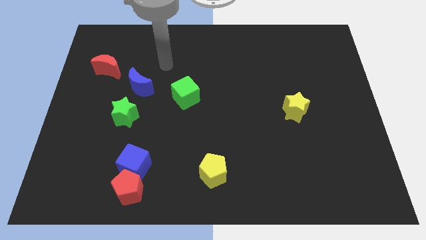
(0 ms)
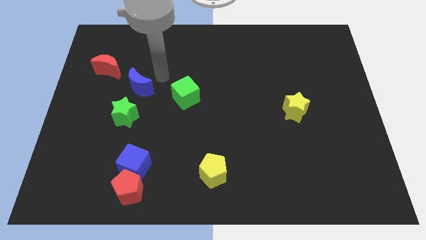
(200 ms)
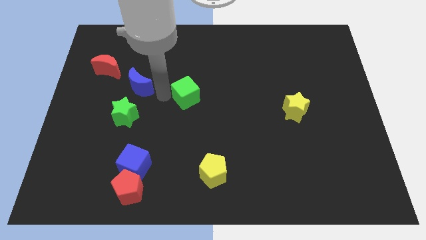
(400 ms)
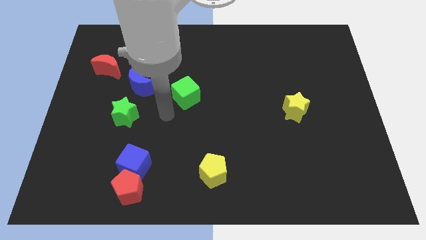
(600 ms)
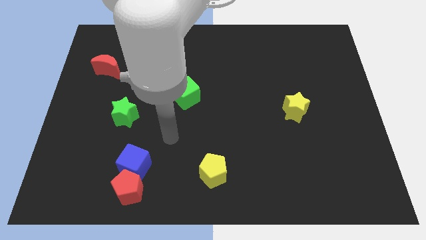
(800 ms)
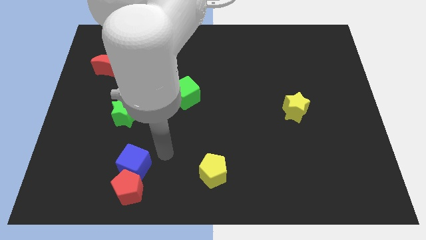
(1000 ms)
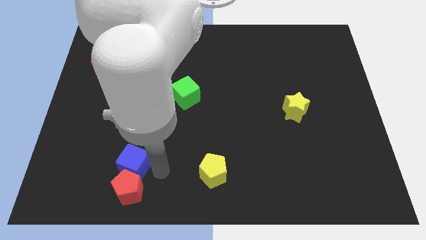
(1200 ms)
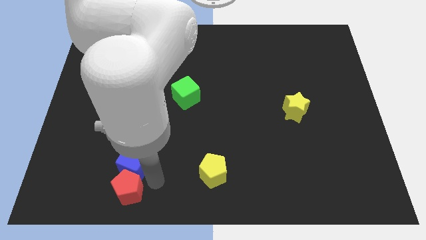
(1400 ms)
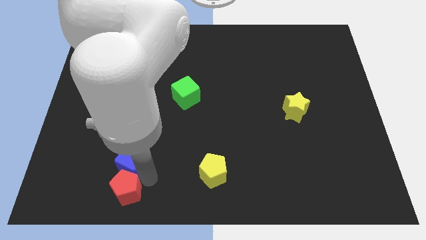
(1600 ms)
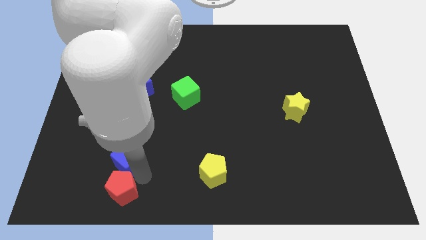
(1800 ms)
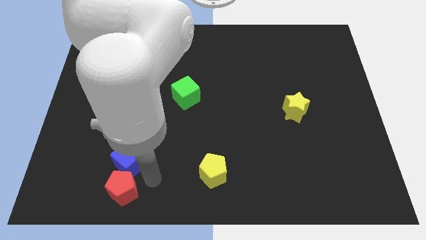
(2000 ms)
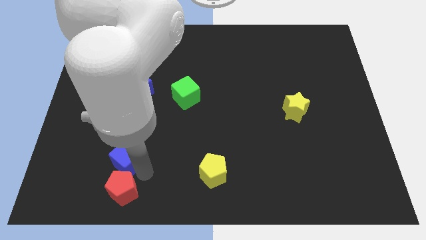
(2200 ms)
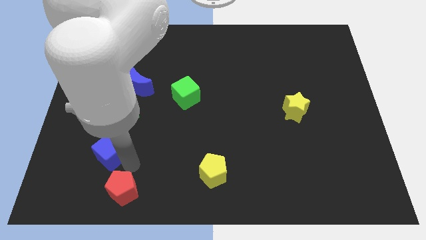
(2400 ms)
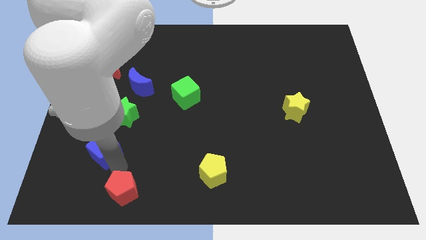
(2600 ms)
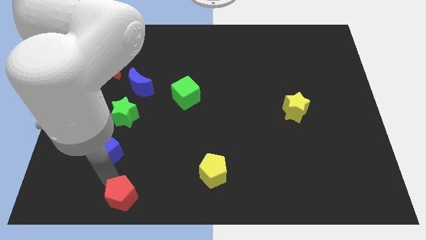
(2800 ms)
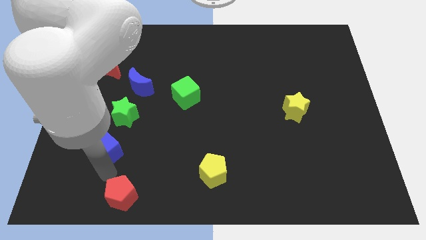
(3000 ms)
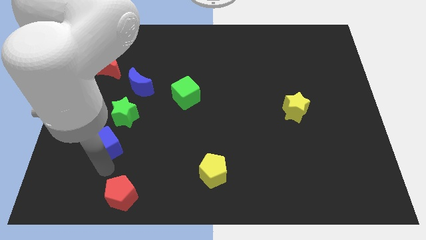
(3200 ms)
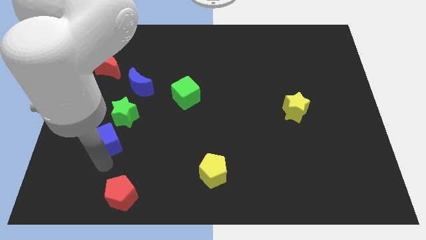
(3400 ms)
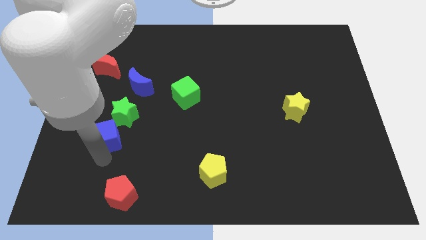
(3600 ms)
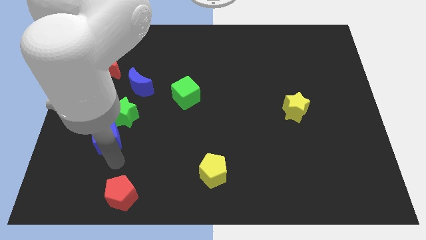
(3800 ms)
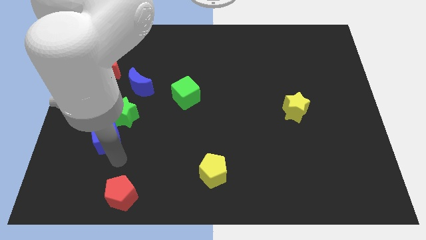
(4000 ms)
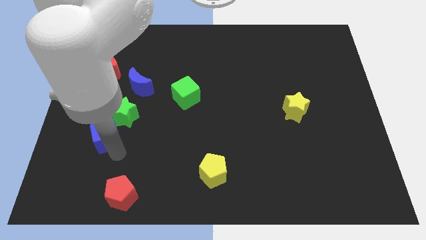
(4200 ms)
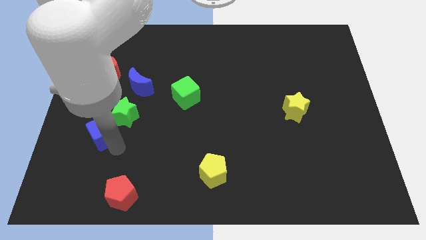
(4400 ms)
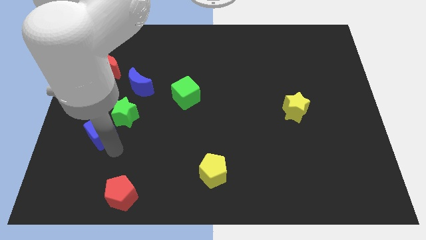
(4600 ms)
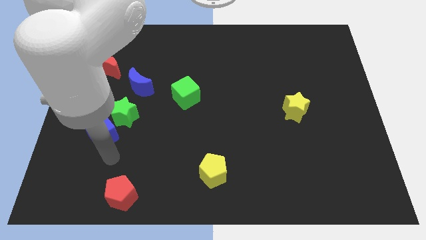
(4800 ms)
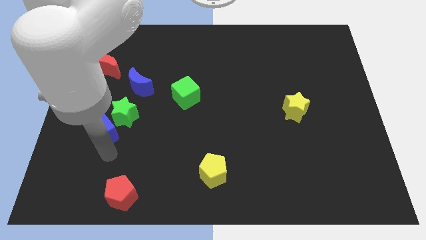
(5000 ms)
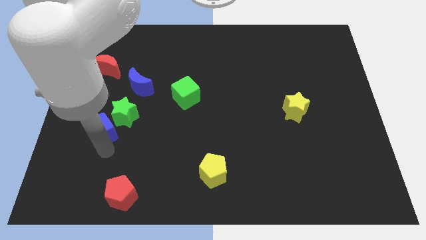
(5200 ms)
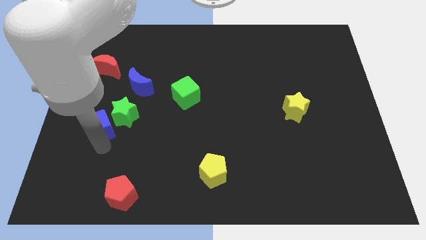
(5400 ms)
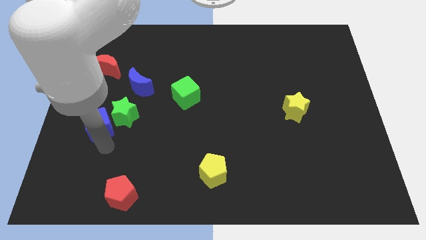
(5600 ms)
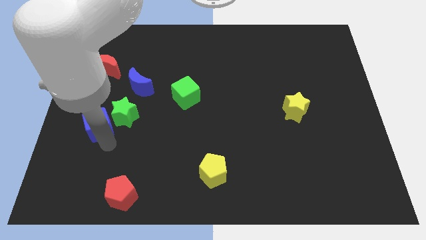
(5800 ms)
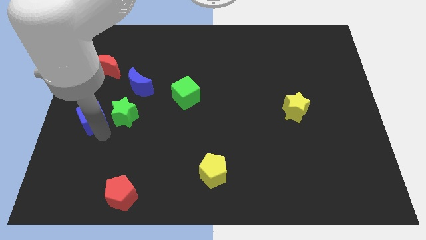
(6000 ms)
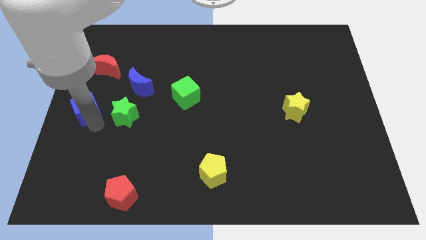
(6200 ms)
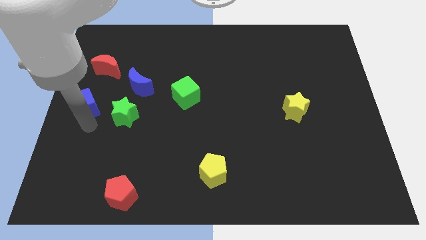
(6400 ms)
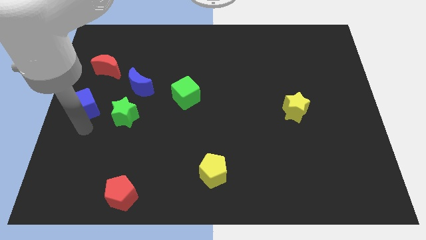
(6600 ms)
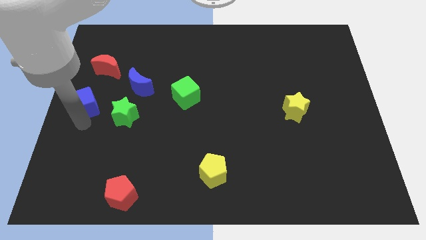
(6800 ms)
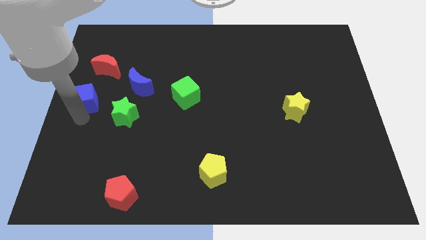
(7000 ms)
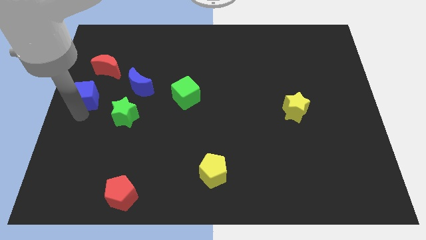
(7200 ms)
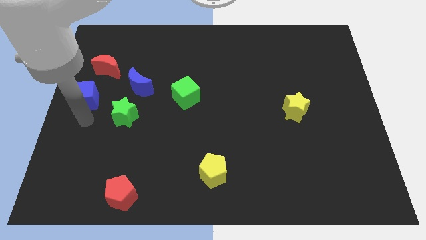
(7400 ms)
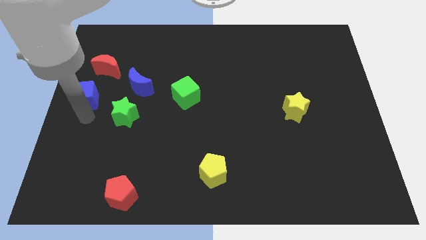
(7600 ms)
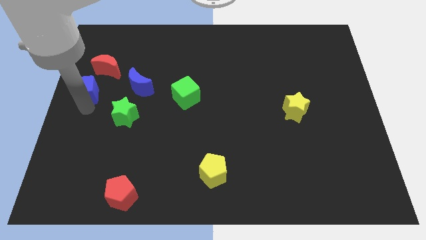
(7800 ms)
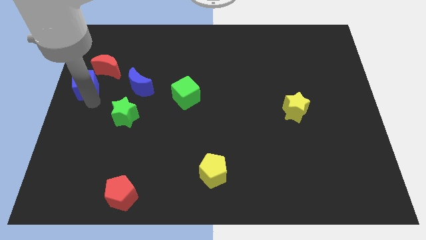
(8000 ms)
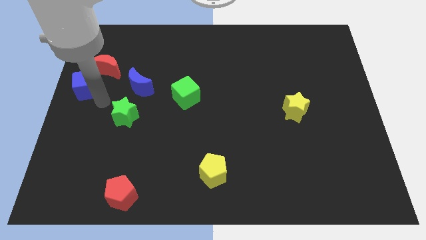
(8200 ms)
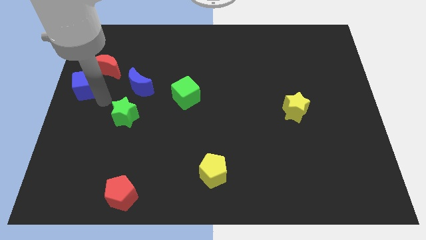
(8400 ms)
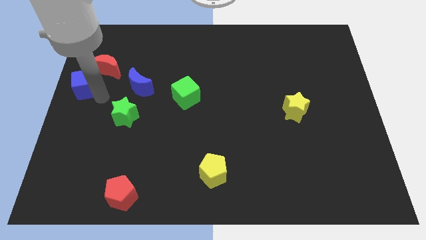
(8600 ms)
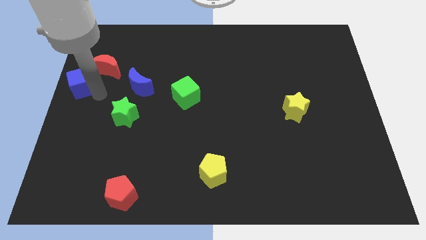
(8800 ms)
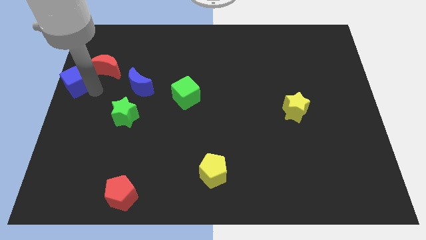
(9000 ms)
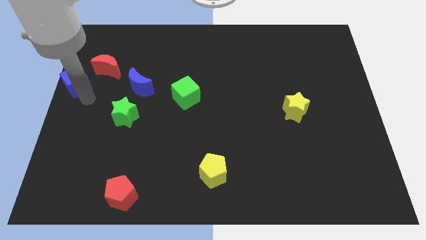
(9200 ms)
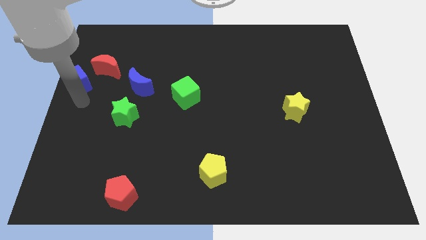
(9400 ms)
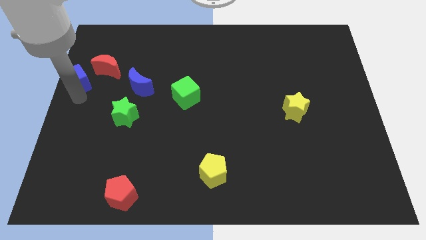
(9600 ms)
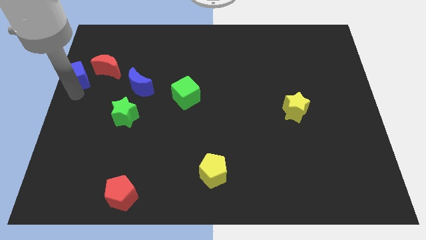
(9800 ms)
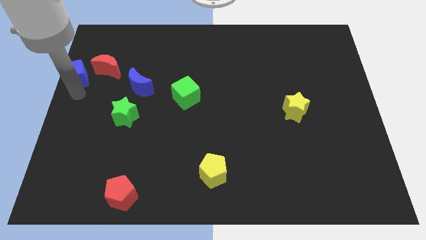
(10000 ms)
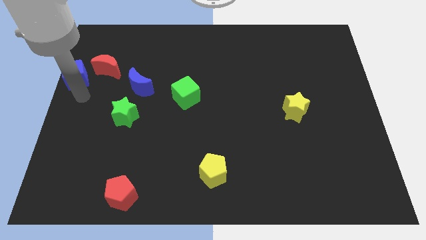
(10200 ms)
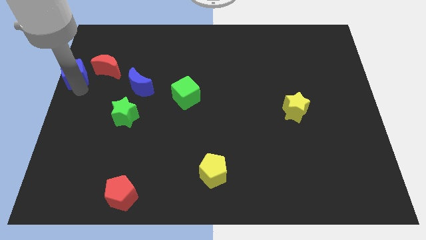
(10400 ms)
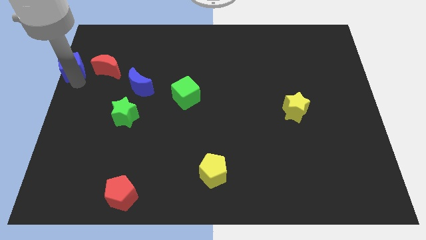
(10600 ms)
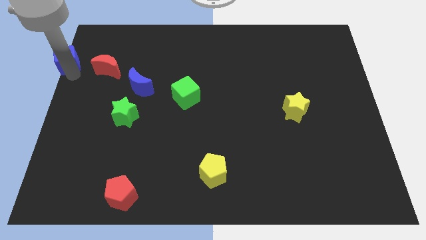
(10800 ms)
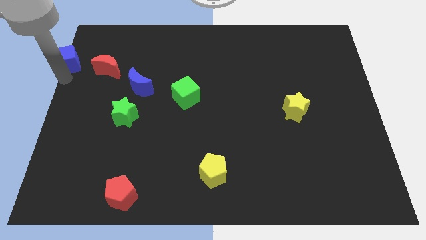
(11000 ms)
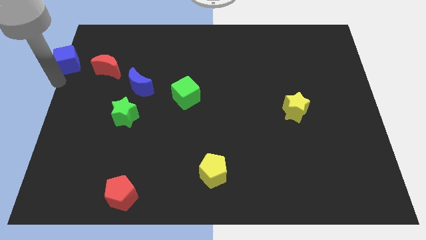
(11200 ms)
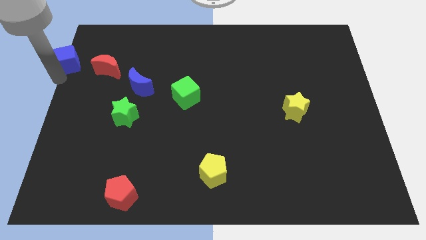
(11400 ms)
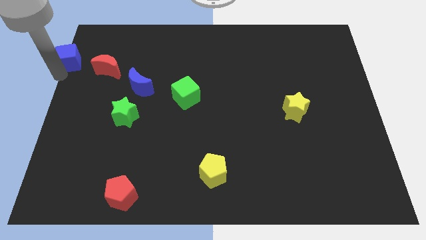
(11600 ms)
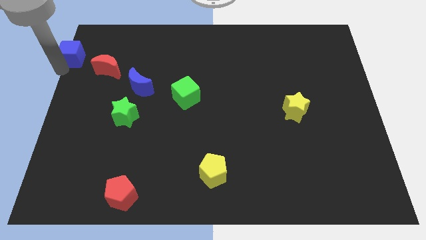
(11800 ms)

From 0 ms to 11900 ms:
move the blue cube to the top left corner
